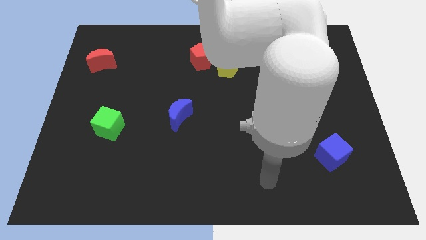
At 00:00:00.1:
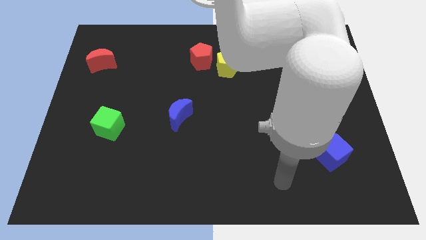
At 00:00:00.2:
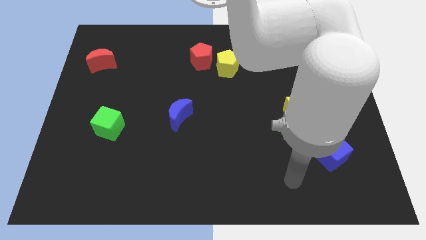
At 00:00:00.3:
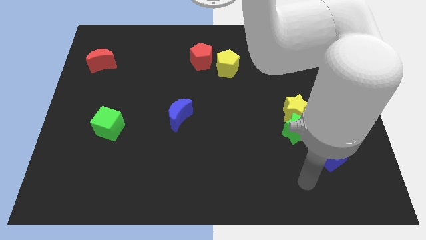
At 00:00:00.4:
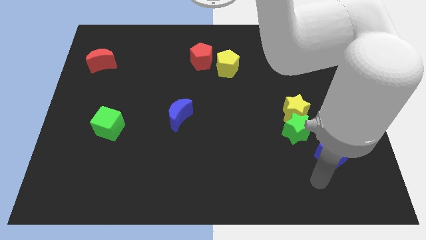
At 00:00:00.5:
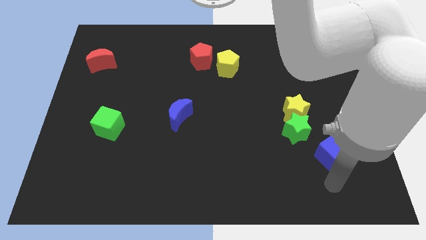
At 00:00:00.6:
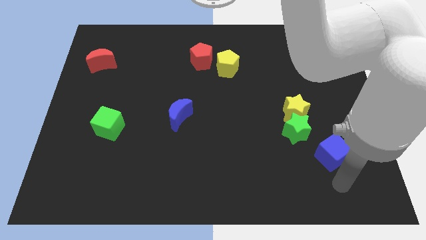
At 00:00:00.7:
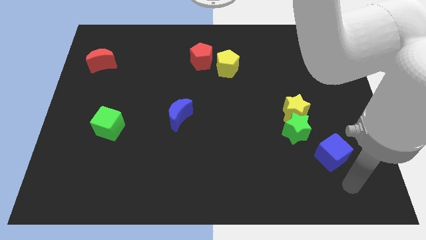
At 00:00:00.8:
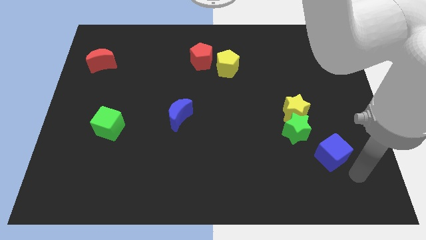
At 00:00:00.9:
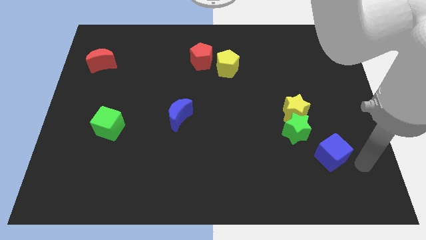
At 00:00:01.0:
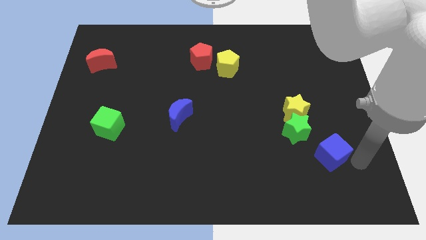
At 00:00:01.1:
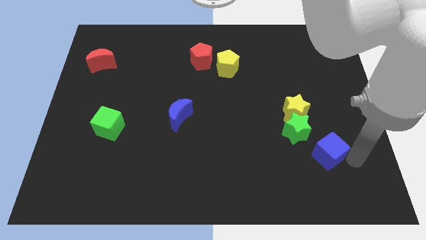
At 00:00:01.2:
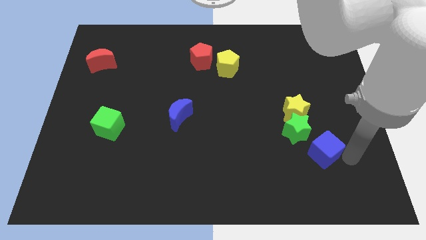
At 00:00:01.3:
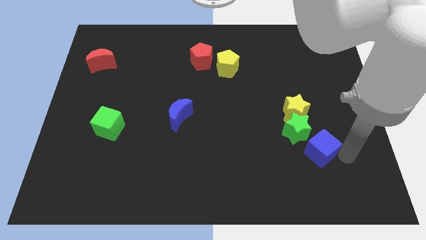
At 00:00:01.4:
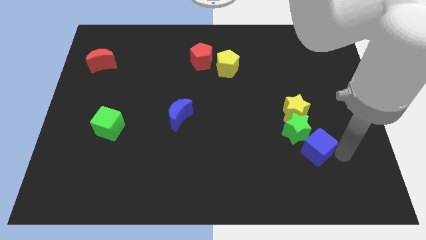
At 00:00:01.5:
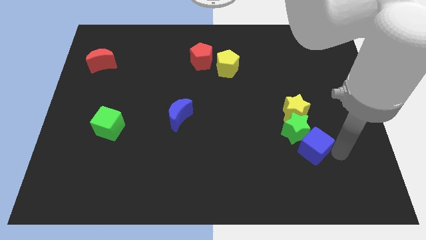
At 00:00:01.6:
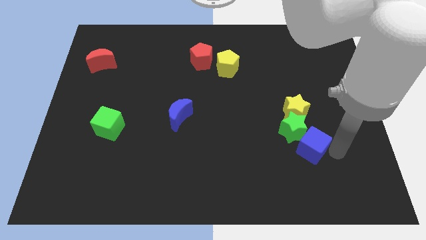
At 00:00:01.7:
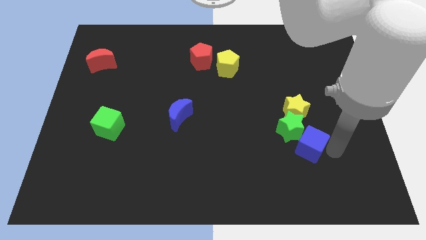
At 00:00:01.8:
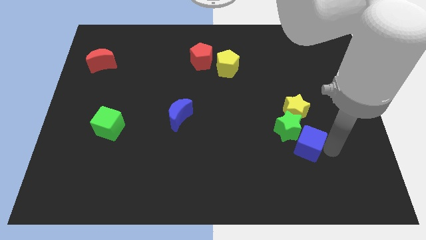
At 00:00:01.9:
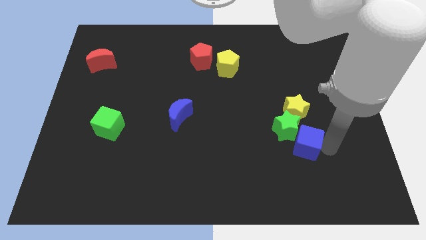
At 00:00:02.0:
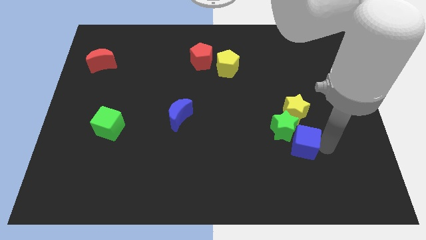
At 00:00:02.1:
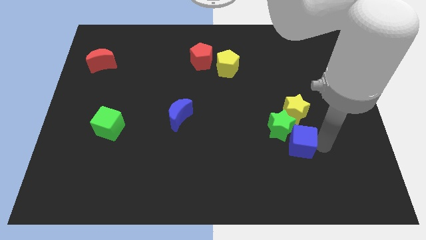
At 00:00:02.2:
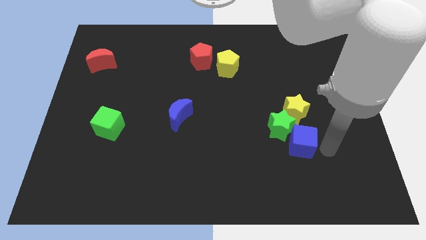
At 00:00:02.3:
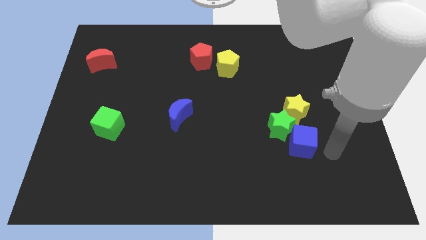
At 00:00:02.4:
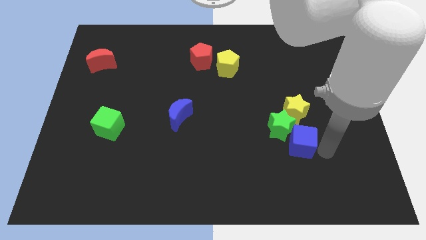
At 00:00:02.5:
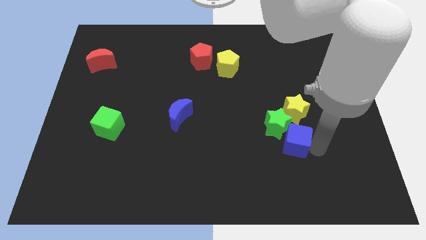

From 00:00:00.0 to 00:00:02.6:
slightly push the blue cube diagonally up and to the left

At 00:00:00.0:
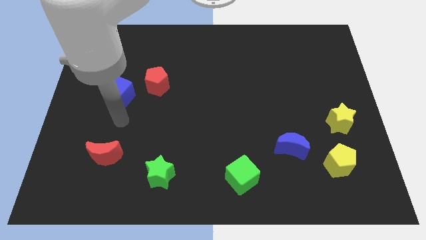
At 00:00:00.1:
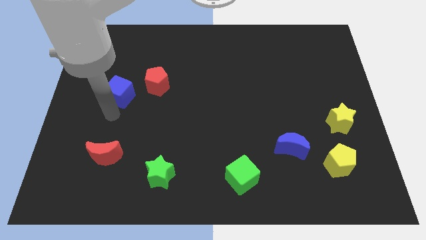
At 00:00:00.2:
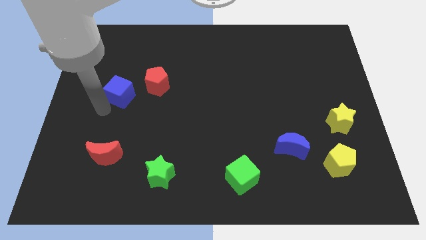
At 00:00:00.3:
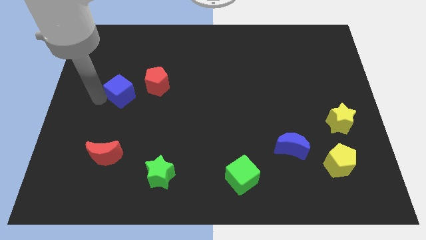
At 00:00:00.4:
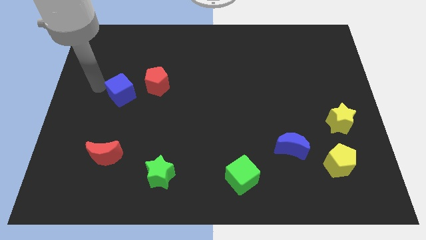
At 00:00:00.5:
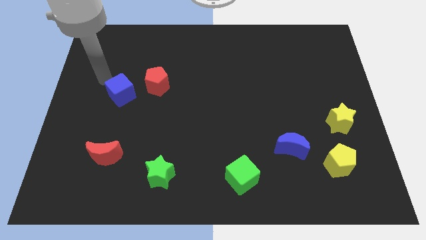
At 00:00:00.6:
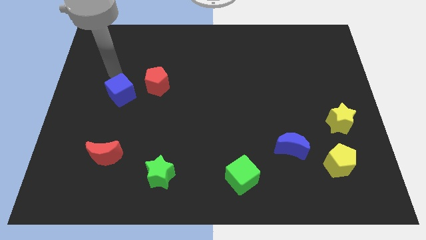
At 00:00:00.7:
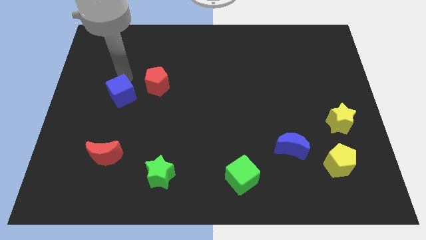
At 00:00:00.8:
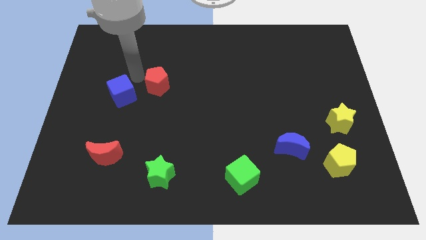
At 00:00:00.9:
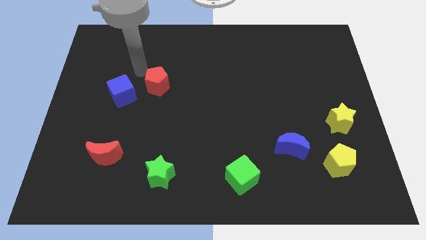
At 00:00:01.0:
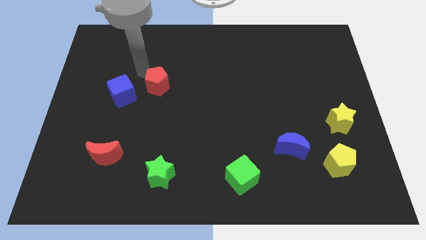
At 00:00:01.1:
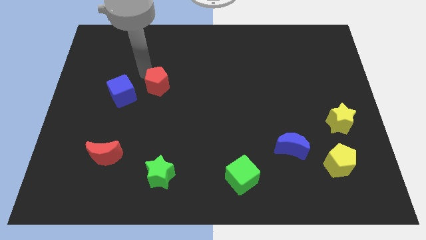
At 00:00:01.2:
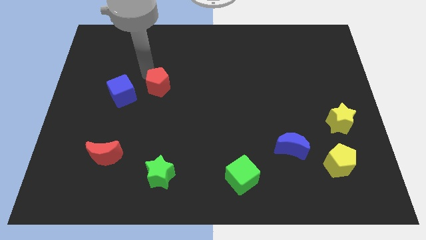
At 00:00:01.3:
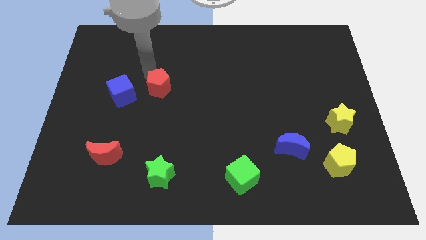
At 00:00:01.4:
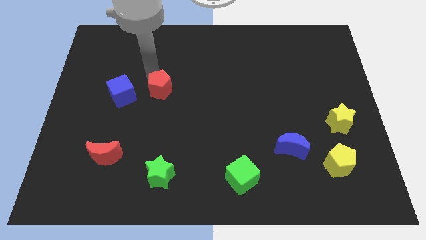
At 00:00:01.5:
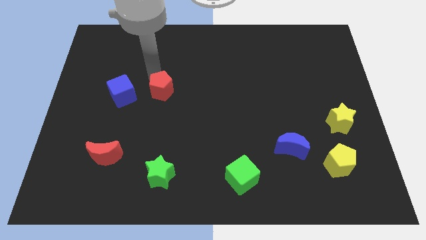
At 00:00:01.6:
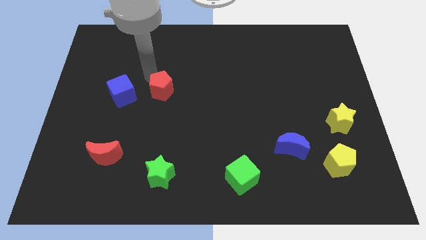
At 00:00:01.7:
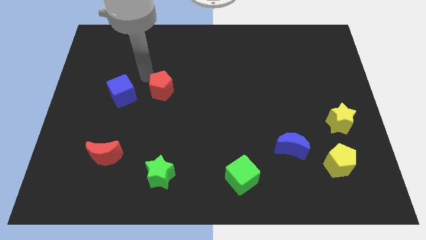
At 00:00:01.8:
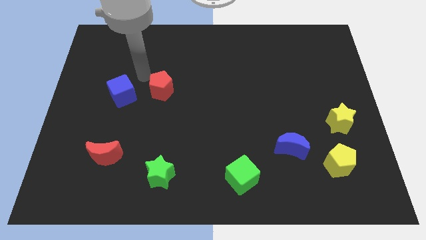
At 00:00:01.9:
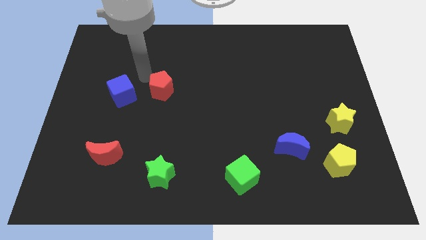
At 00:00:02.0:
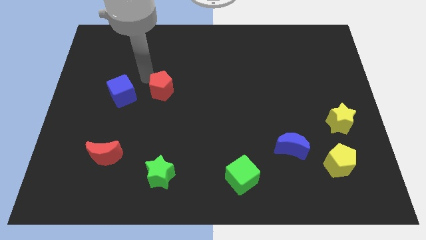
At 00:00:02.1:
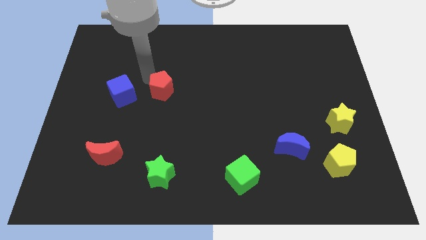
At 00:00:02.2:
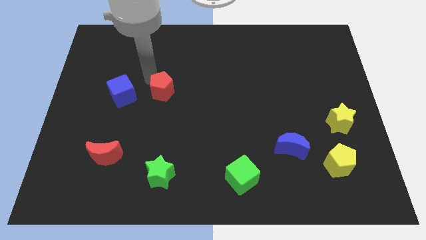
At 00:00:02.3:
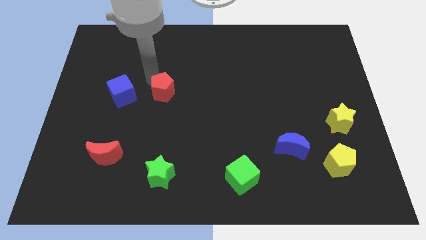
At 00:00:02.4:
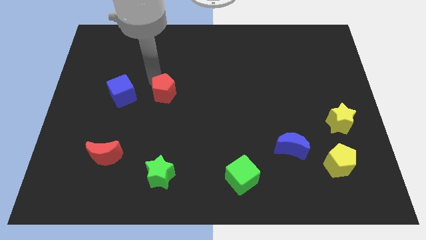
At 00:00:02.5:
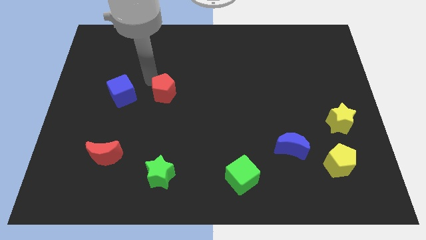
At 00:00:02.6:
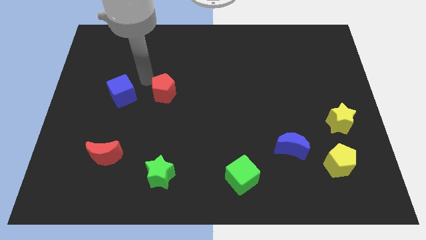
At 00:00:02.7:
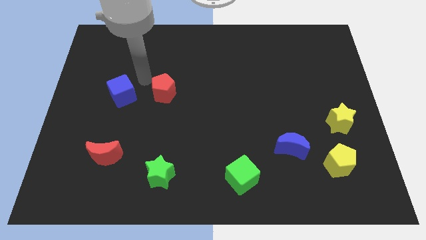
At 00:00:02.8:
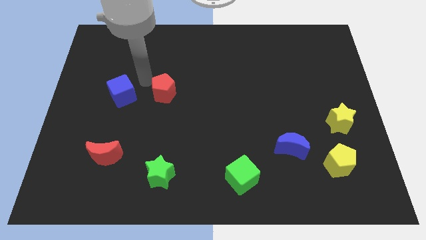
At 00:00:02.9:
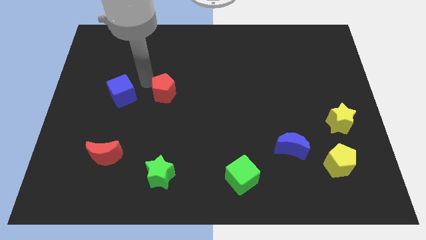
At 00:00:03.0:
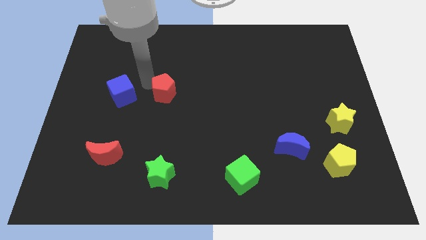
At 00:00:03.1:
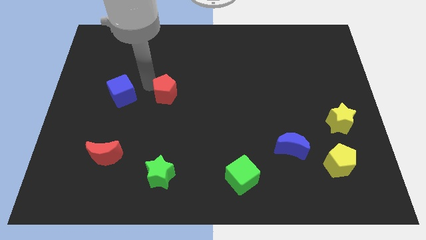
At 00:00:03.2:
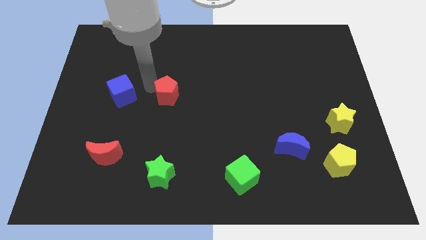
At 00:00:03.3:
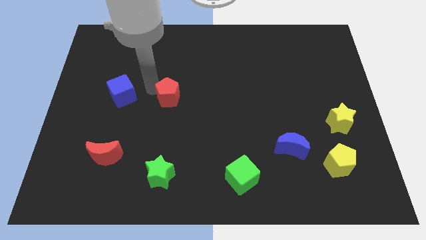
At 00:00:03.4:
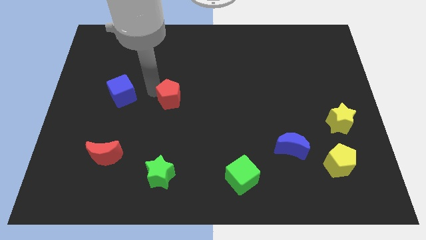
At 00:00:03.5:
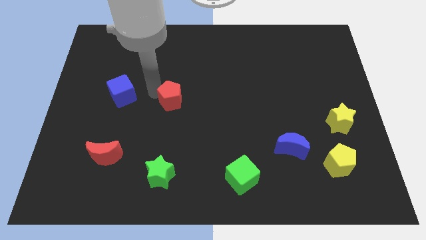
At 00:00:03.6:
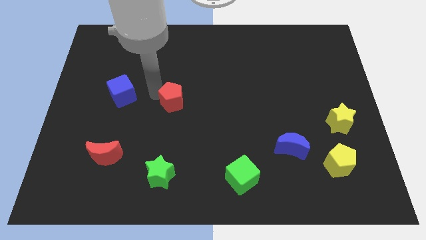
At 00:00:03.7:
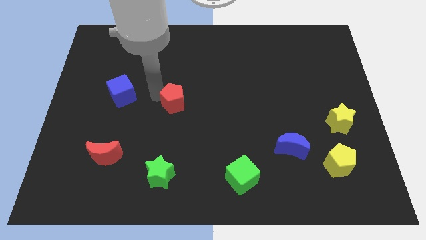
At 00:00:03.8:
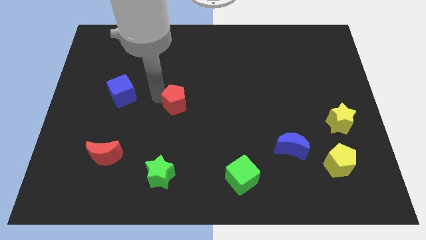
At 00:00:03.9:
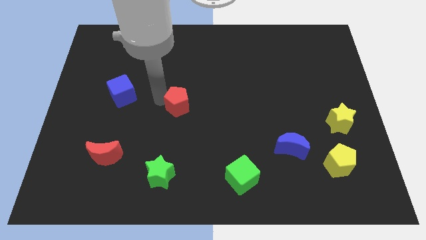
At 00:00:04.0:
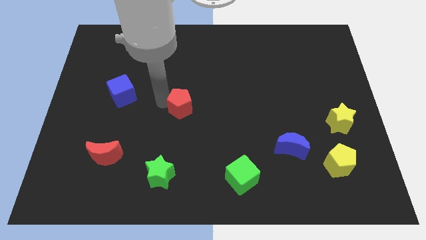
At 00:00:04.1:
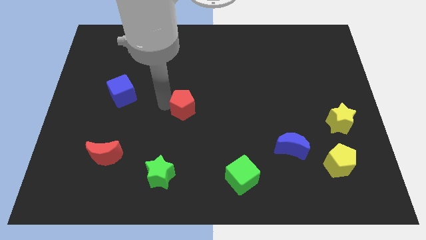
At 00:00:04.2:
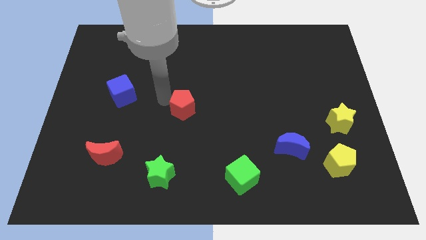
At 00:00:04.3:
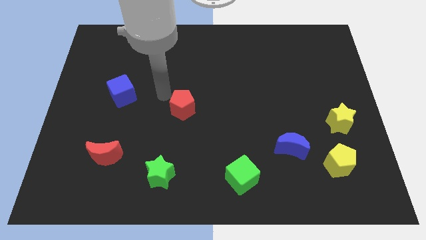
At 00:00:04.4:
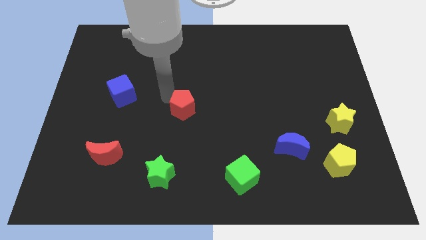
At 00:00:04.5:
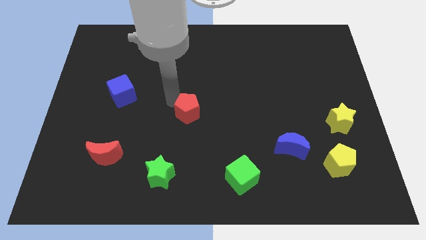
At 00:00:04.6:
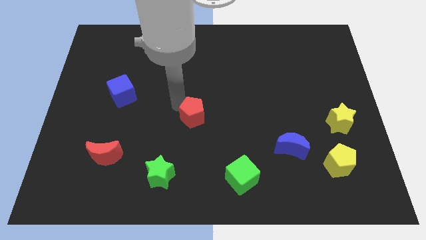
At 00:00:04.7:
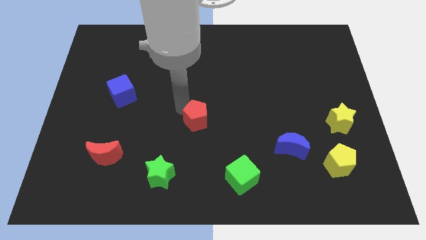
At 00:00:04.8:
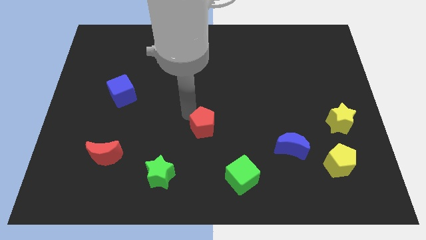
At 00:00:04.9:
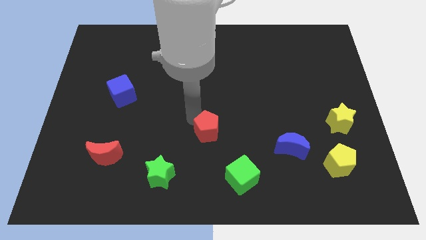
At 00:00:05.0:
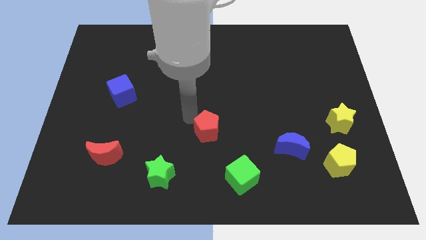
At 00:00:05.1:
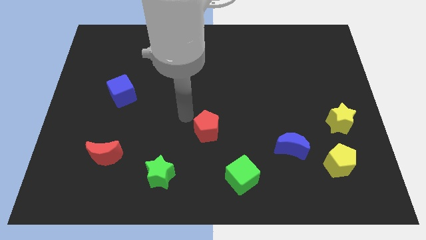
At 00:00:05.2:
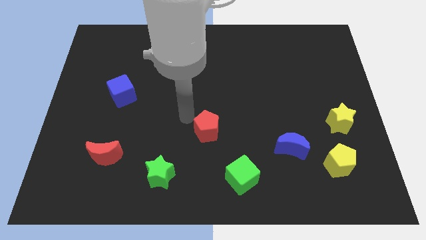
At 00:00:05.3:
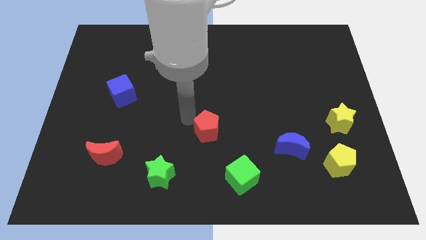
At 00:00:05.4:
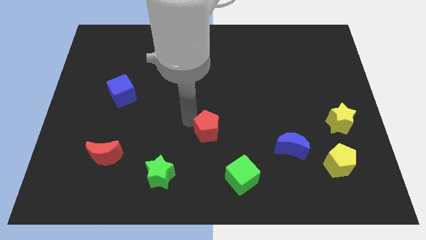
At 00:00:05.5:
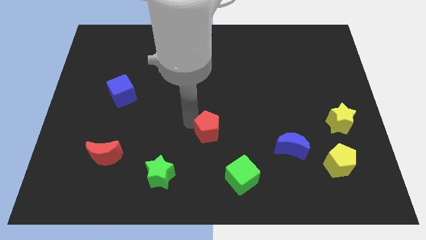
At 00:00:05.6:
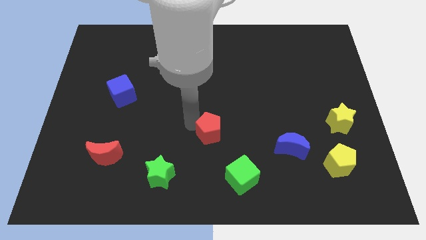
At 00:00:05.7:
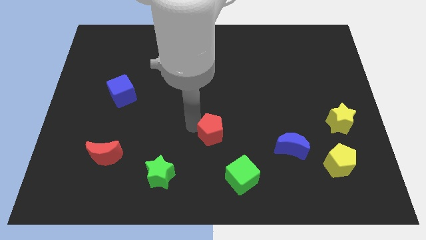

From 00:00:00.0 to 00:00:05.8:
move the red pentagon down and then to the right
